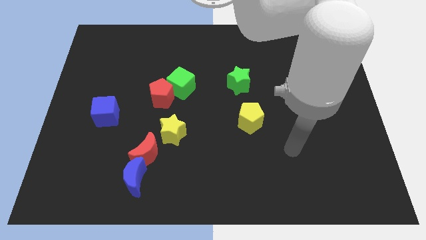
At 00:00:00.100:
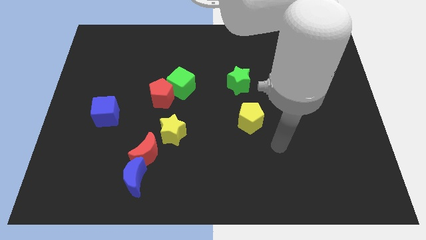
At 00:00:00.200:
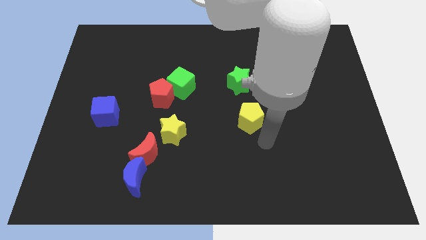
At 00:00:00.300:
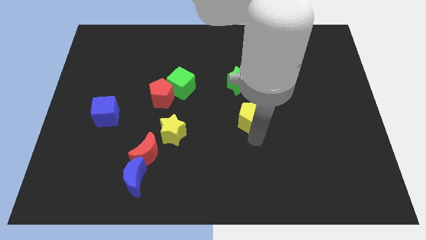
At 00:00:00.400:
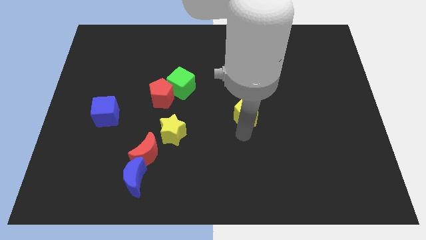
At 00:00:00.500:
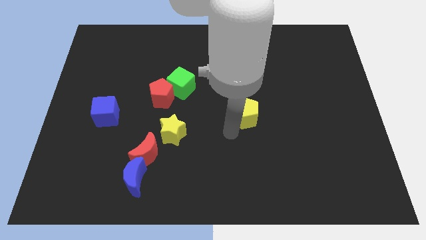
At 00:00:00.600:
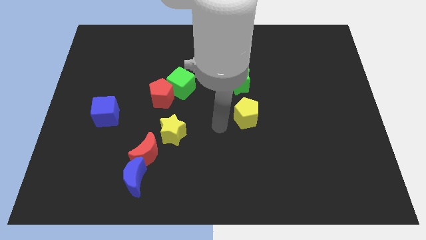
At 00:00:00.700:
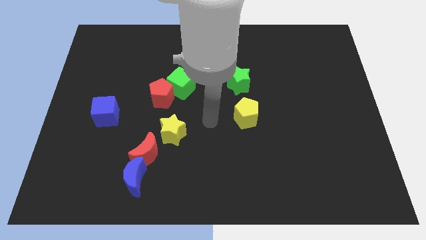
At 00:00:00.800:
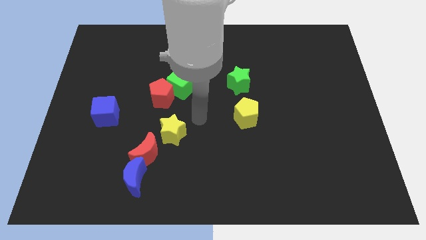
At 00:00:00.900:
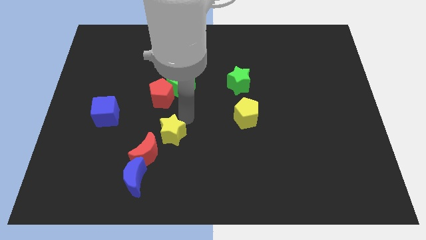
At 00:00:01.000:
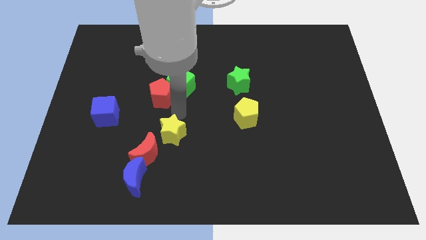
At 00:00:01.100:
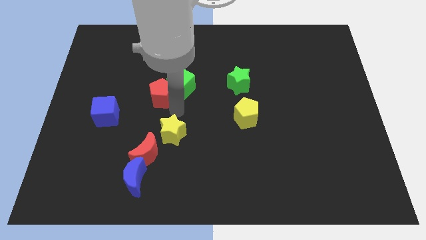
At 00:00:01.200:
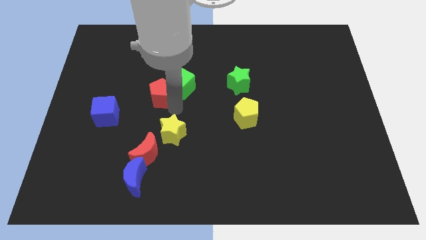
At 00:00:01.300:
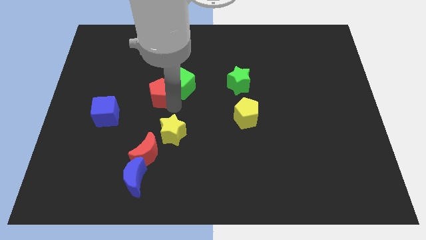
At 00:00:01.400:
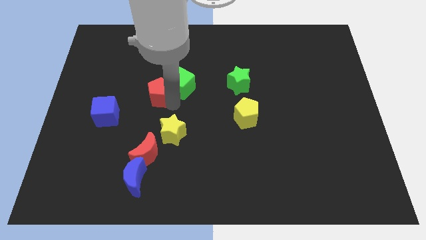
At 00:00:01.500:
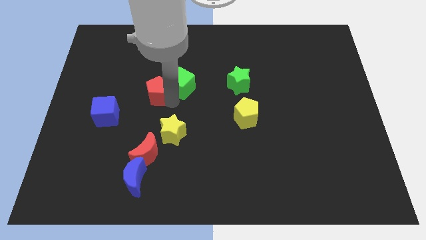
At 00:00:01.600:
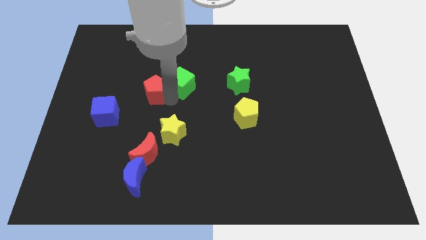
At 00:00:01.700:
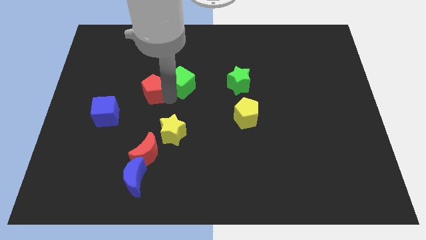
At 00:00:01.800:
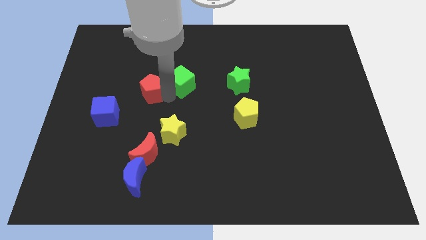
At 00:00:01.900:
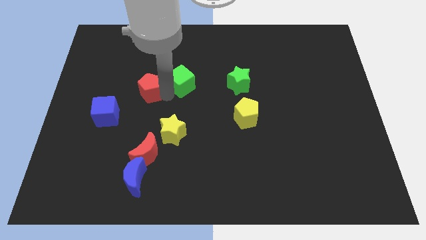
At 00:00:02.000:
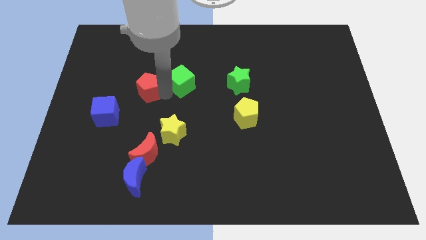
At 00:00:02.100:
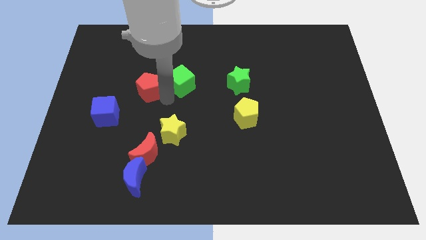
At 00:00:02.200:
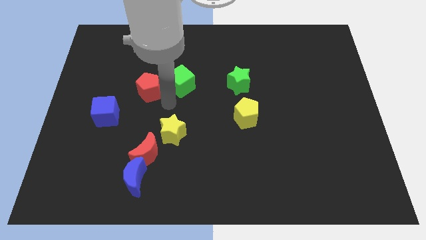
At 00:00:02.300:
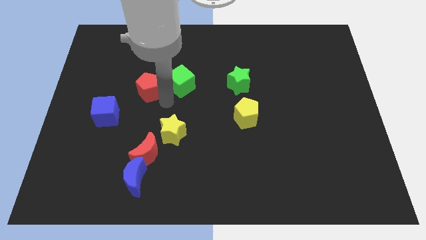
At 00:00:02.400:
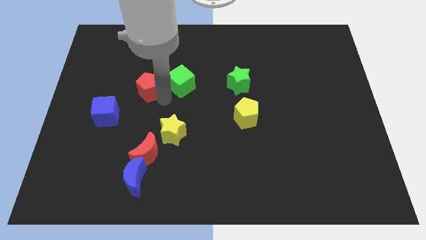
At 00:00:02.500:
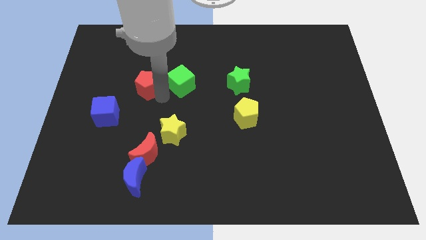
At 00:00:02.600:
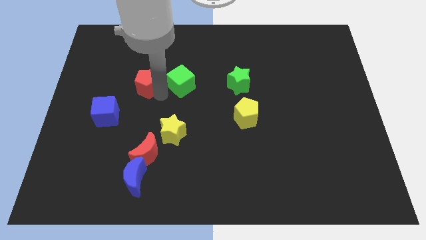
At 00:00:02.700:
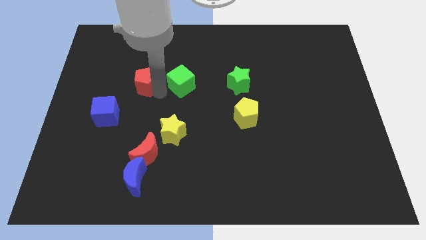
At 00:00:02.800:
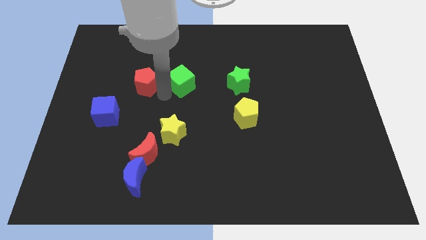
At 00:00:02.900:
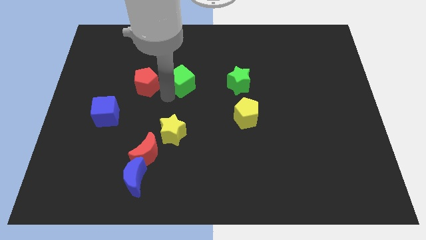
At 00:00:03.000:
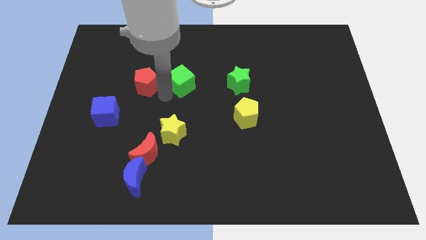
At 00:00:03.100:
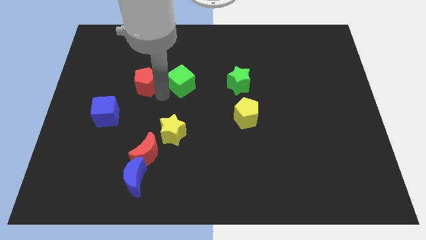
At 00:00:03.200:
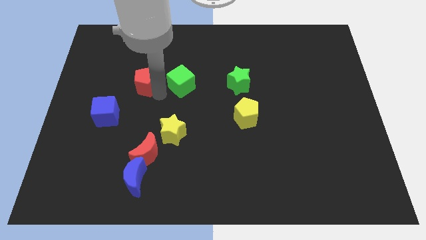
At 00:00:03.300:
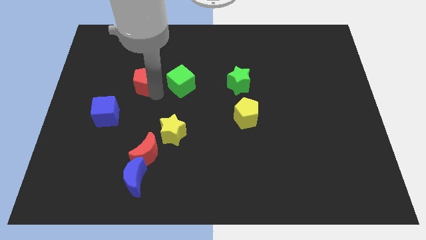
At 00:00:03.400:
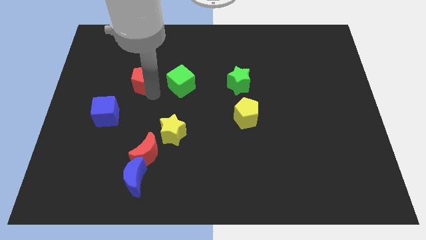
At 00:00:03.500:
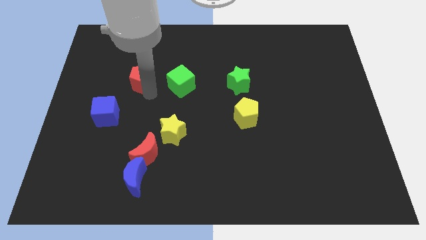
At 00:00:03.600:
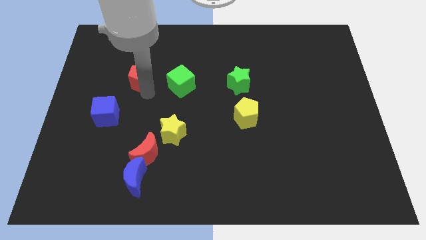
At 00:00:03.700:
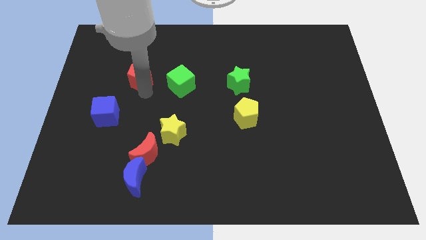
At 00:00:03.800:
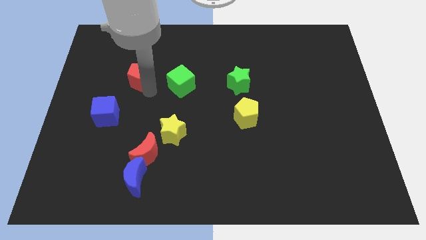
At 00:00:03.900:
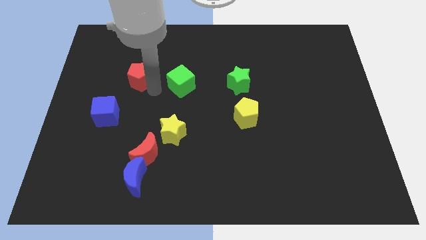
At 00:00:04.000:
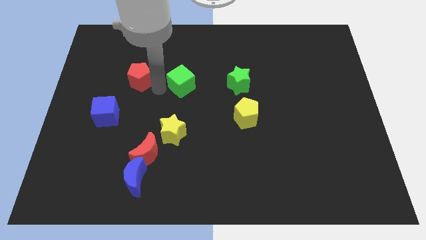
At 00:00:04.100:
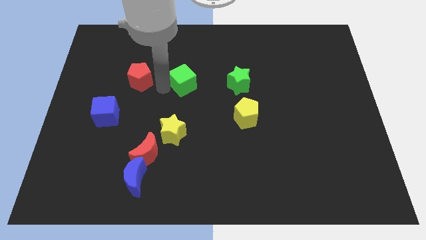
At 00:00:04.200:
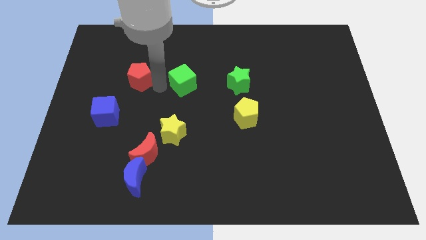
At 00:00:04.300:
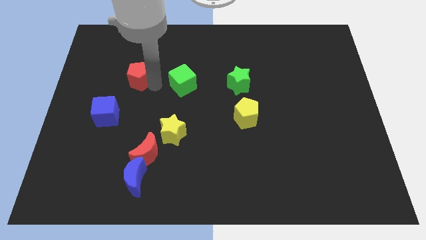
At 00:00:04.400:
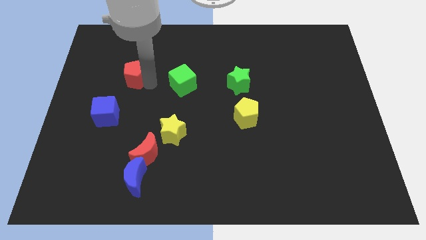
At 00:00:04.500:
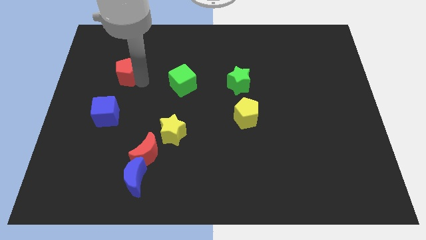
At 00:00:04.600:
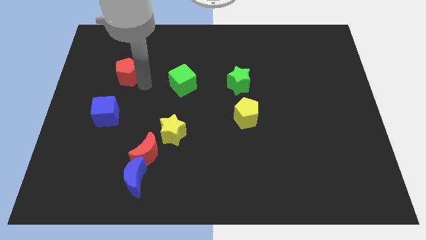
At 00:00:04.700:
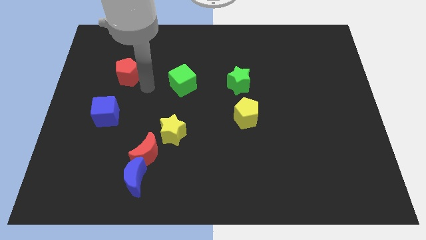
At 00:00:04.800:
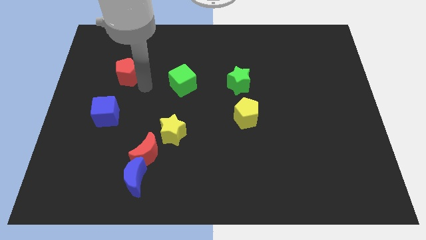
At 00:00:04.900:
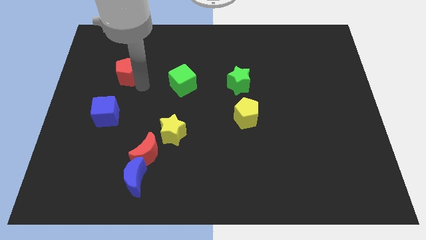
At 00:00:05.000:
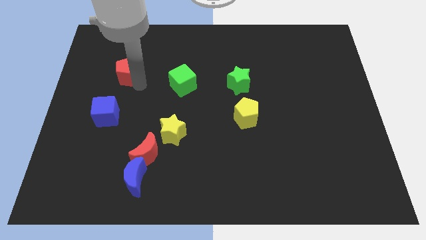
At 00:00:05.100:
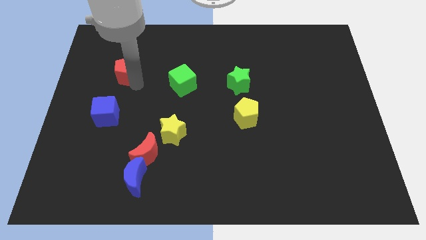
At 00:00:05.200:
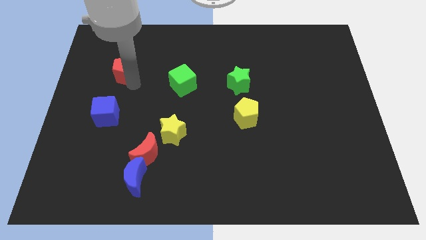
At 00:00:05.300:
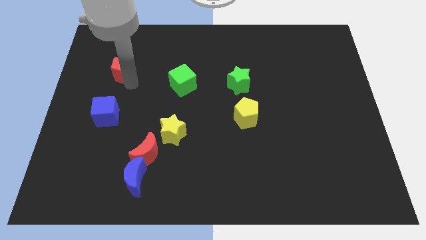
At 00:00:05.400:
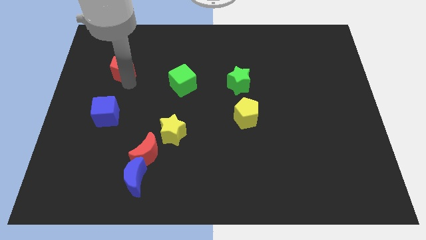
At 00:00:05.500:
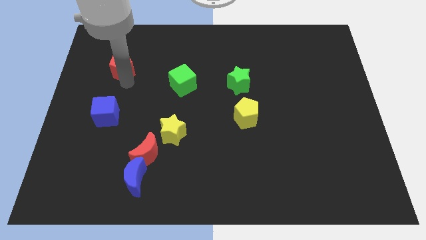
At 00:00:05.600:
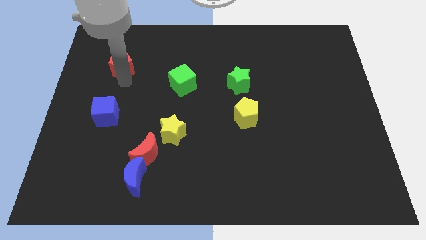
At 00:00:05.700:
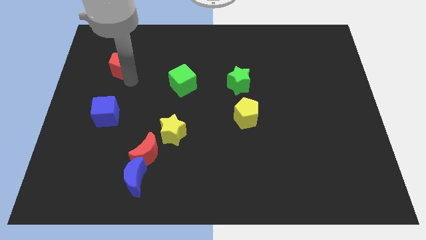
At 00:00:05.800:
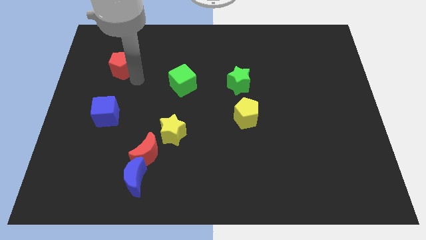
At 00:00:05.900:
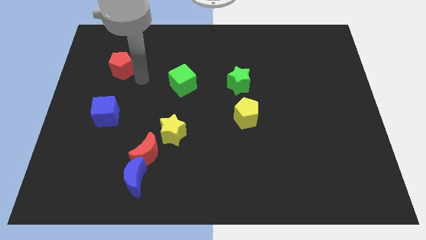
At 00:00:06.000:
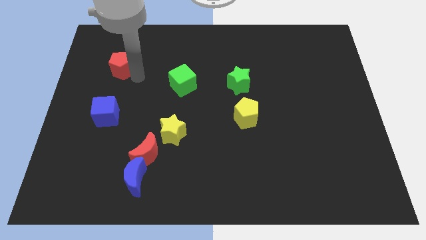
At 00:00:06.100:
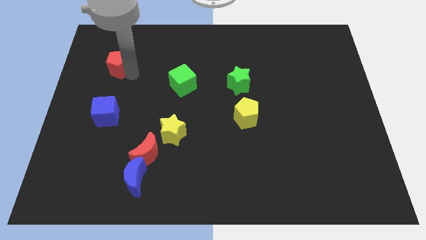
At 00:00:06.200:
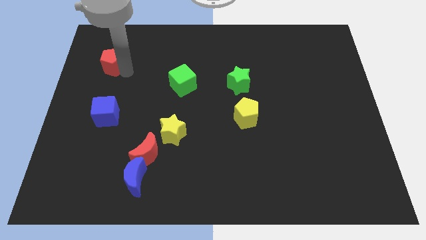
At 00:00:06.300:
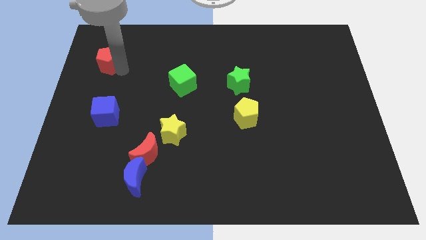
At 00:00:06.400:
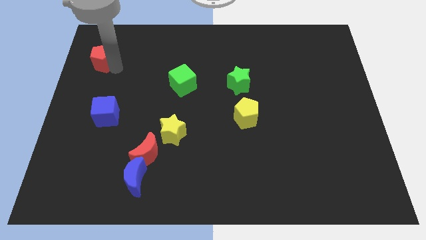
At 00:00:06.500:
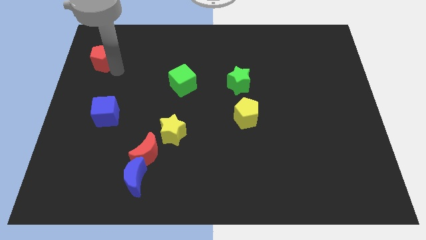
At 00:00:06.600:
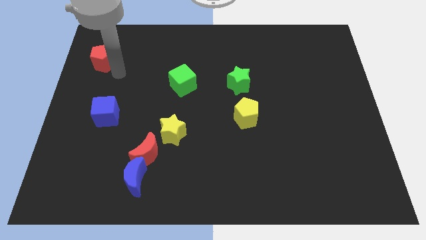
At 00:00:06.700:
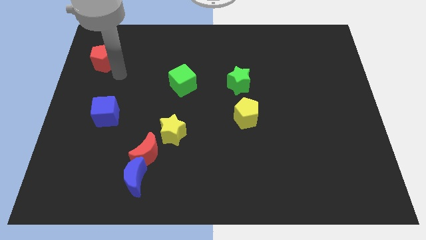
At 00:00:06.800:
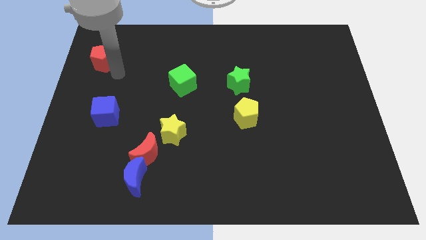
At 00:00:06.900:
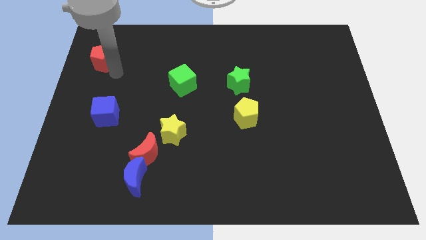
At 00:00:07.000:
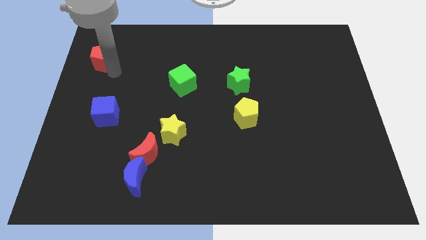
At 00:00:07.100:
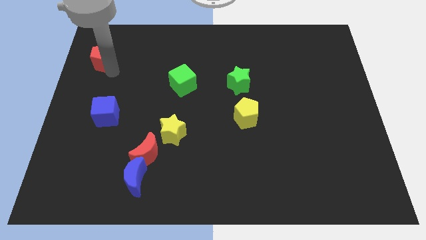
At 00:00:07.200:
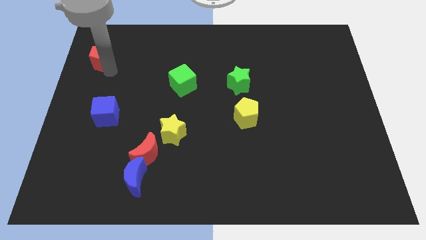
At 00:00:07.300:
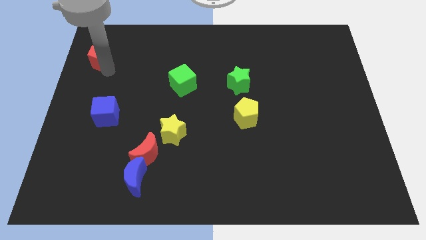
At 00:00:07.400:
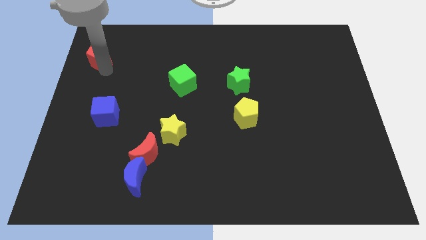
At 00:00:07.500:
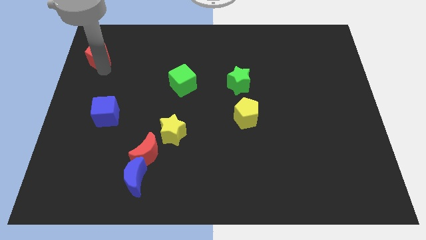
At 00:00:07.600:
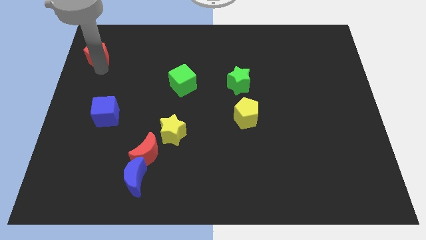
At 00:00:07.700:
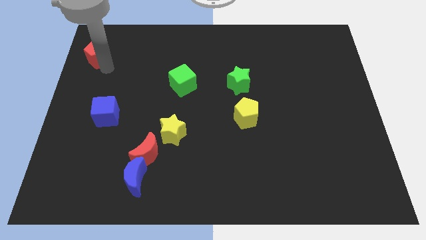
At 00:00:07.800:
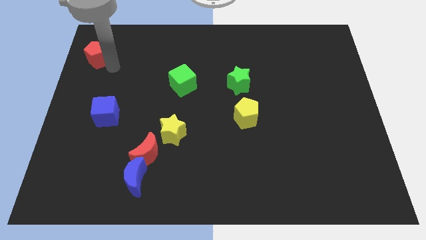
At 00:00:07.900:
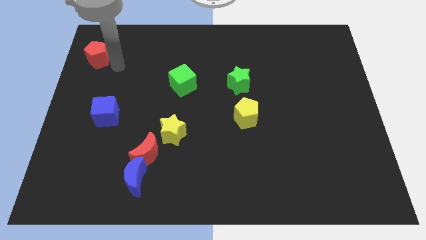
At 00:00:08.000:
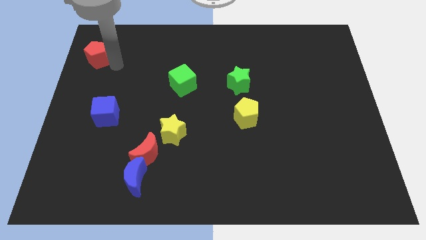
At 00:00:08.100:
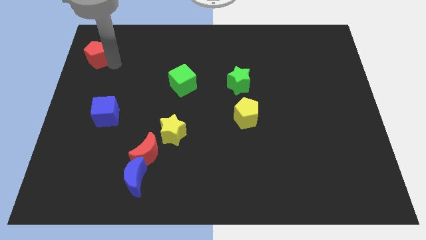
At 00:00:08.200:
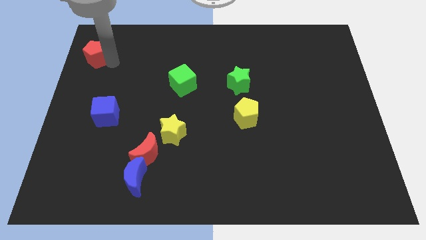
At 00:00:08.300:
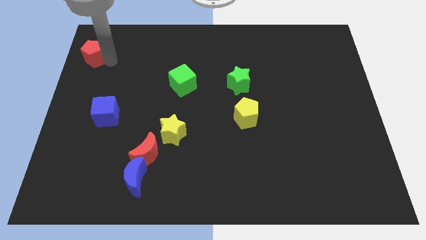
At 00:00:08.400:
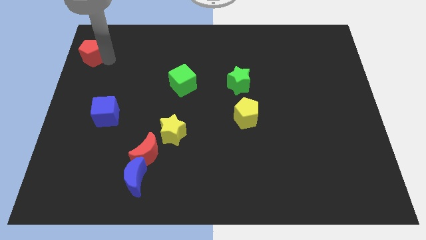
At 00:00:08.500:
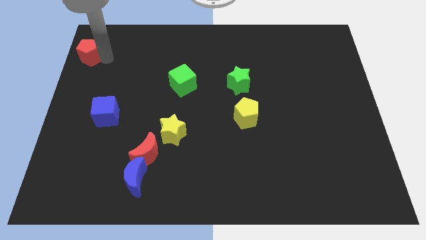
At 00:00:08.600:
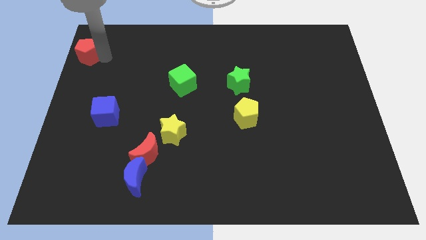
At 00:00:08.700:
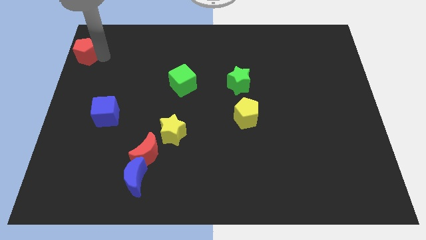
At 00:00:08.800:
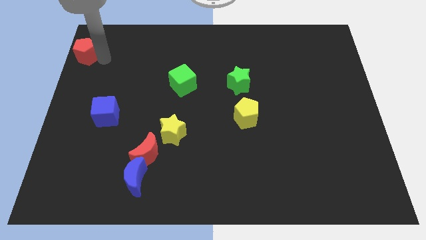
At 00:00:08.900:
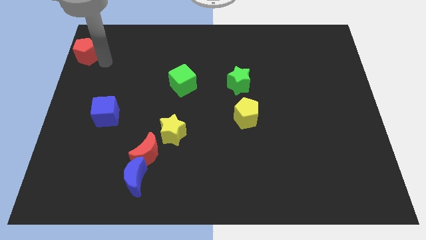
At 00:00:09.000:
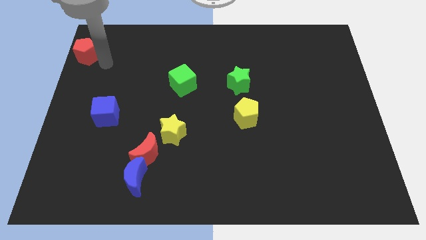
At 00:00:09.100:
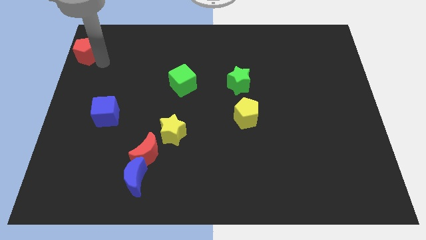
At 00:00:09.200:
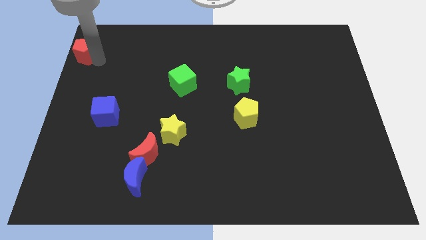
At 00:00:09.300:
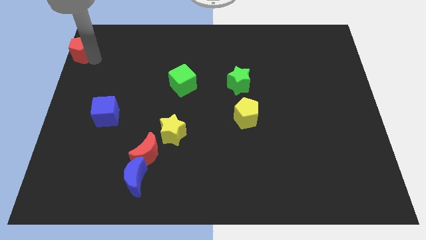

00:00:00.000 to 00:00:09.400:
slide the red pentagon to the top left of the board
